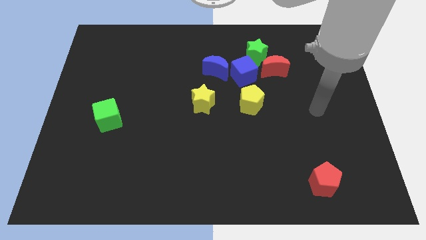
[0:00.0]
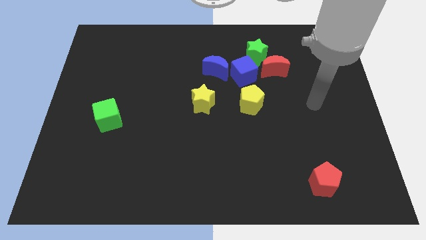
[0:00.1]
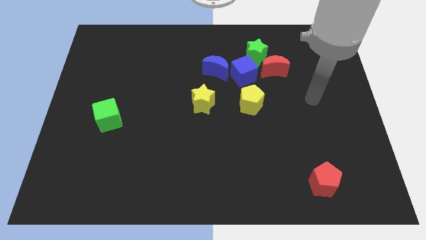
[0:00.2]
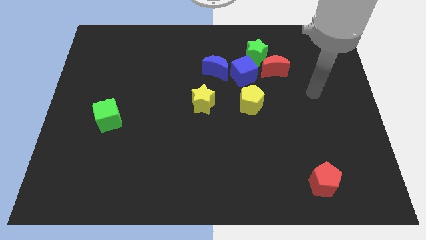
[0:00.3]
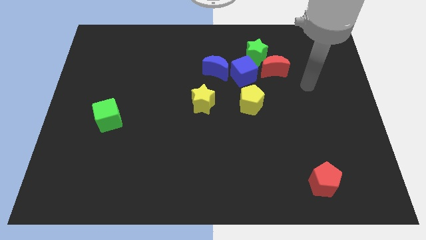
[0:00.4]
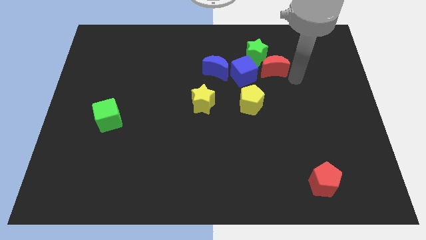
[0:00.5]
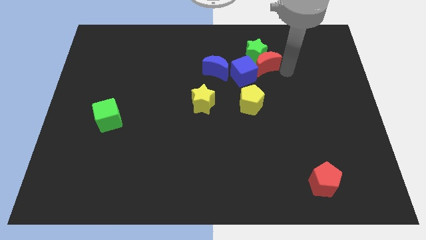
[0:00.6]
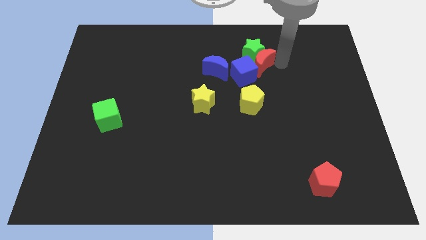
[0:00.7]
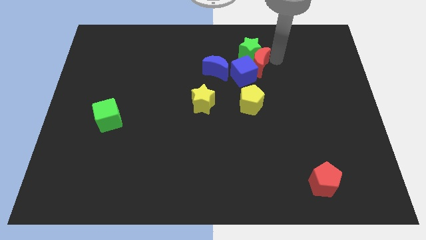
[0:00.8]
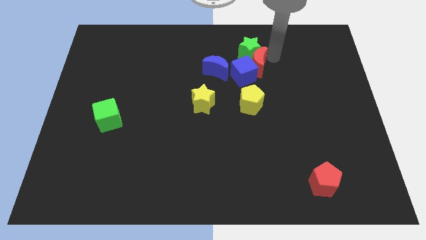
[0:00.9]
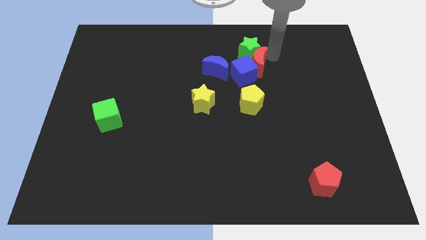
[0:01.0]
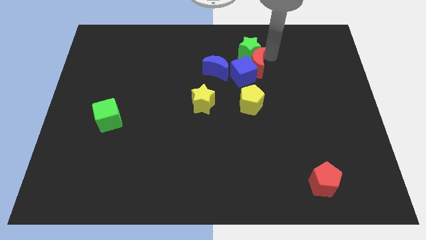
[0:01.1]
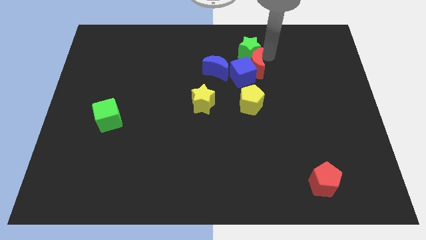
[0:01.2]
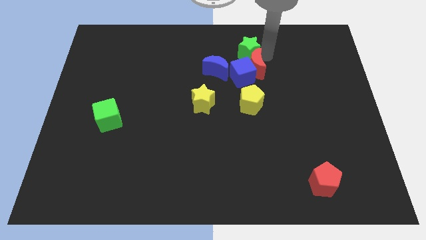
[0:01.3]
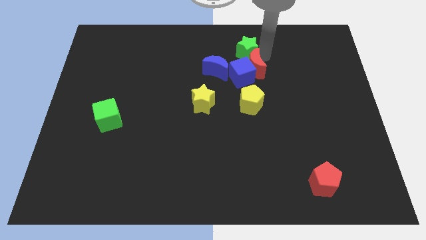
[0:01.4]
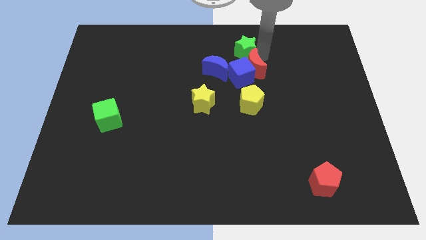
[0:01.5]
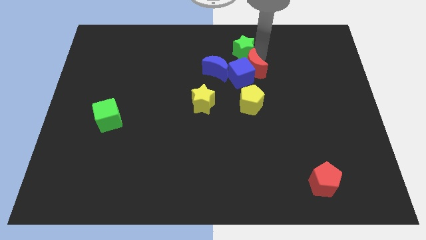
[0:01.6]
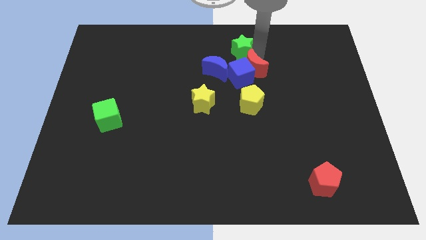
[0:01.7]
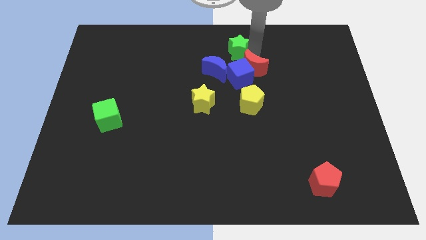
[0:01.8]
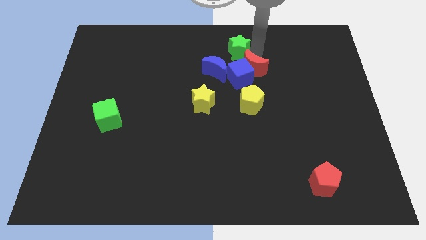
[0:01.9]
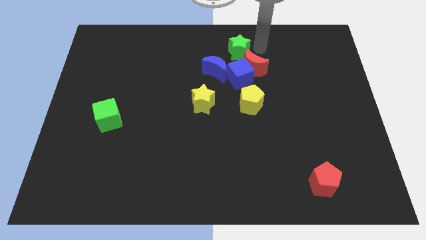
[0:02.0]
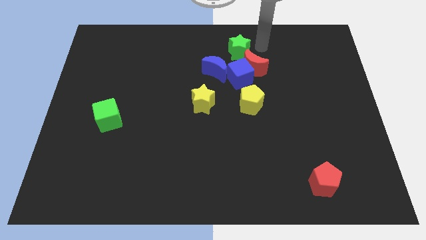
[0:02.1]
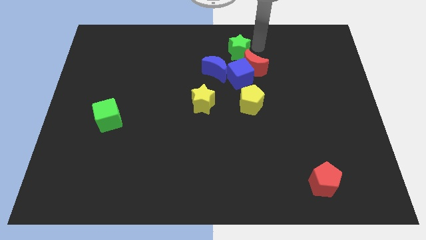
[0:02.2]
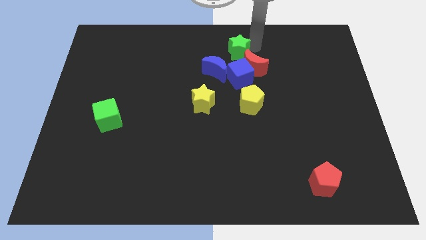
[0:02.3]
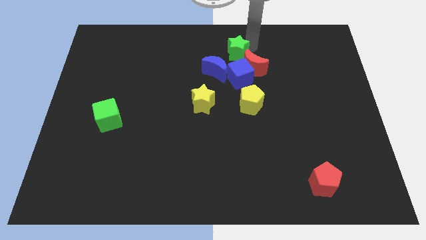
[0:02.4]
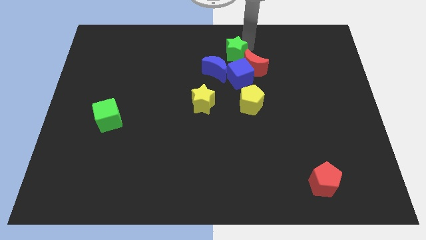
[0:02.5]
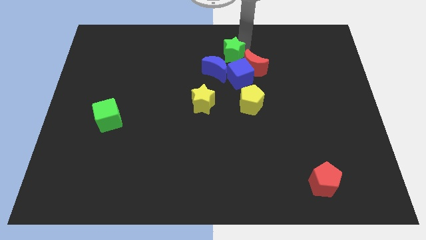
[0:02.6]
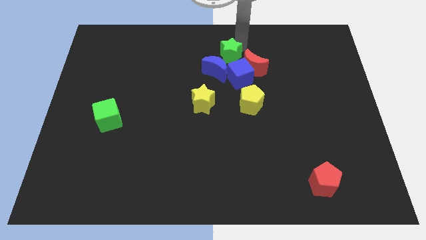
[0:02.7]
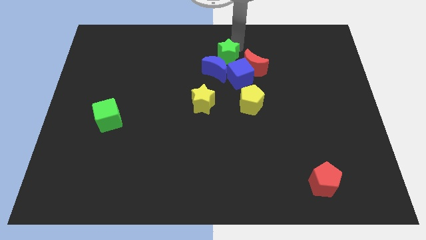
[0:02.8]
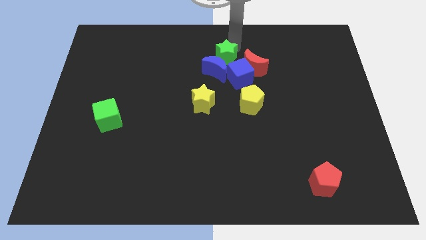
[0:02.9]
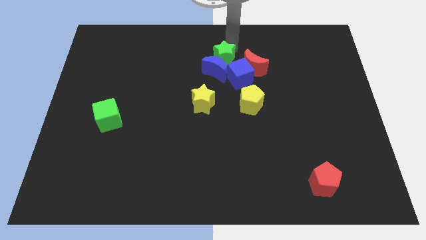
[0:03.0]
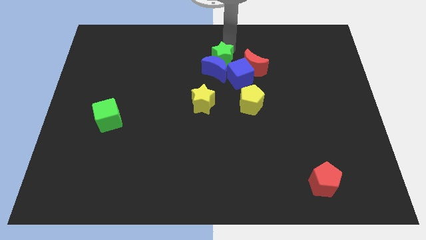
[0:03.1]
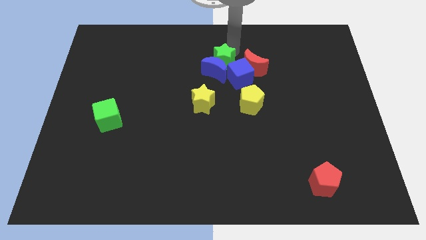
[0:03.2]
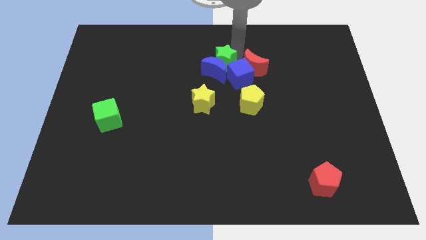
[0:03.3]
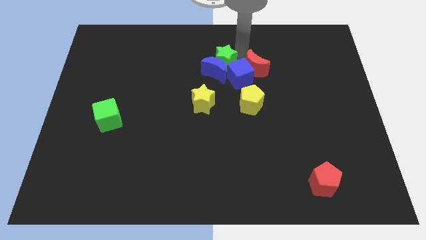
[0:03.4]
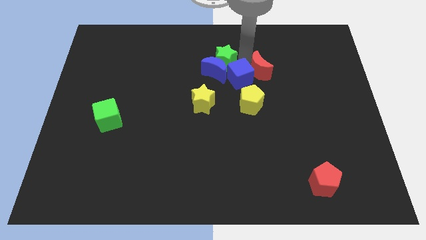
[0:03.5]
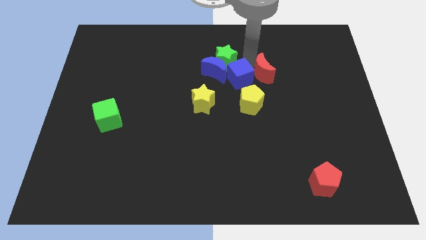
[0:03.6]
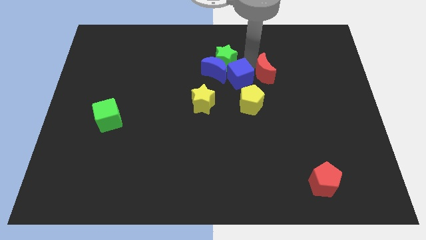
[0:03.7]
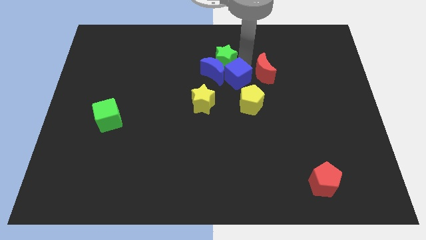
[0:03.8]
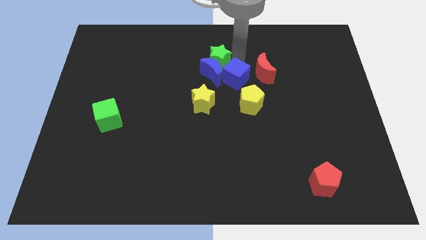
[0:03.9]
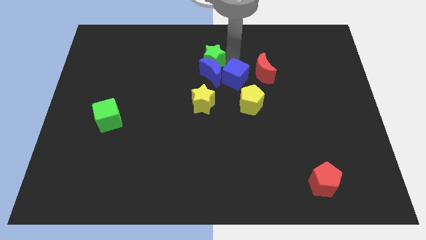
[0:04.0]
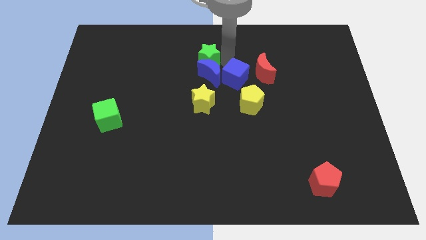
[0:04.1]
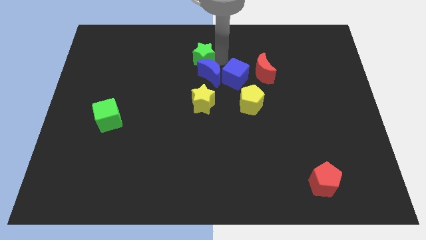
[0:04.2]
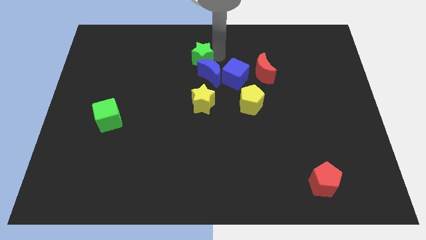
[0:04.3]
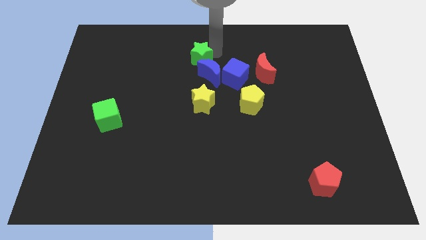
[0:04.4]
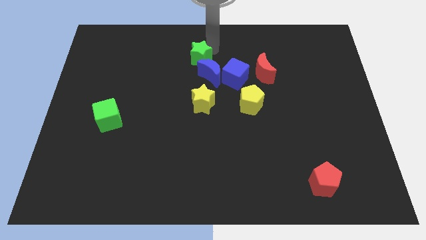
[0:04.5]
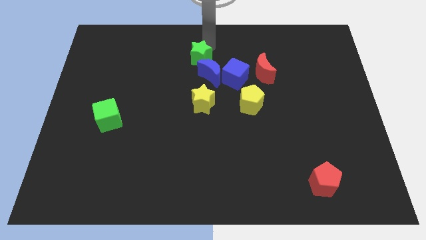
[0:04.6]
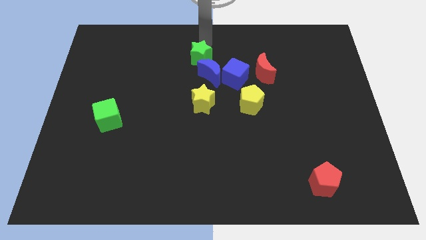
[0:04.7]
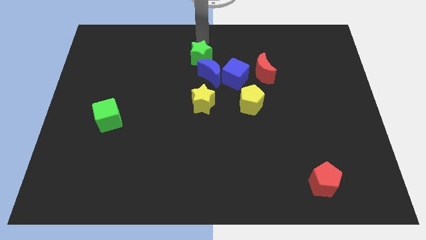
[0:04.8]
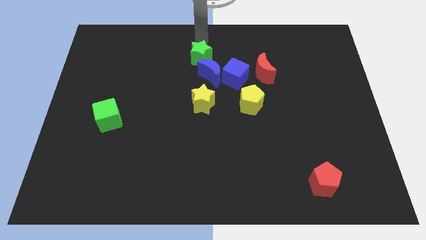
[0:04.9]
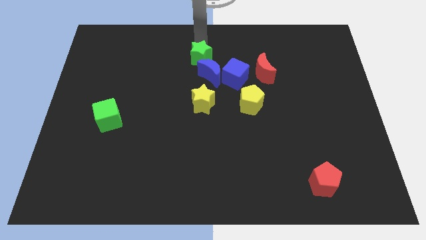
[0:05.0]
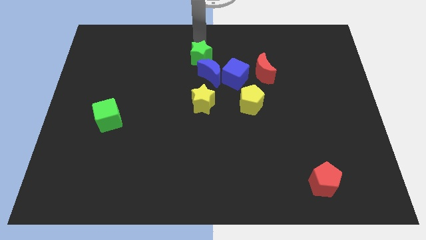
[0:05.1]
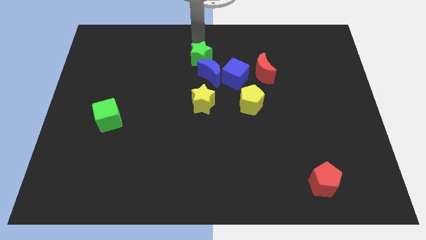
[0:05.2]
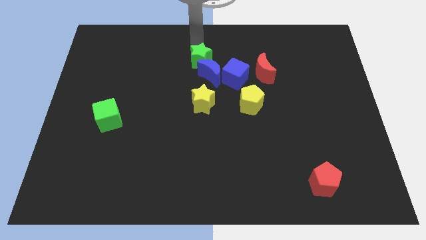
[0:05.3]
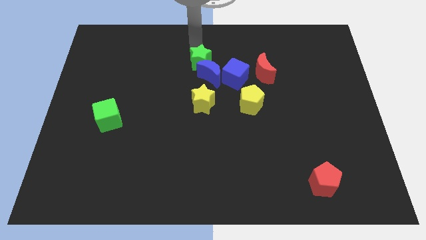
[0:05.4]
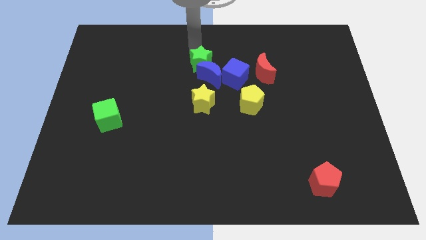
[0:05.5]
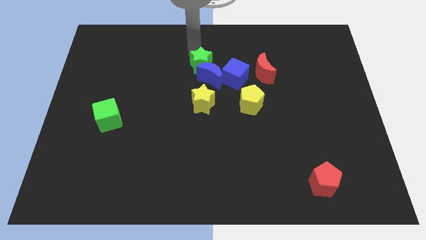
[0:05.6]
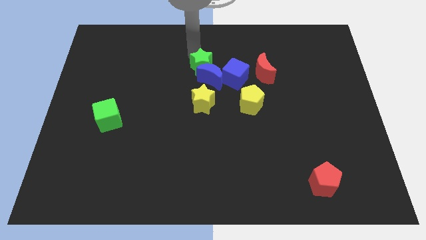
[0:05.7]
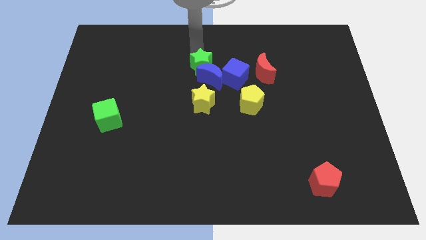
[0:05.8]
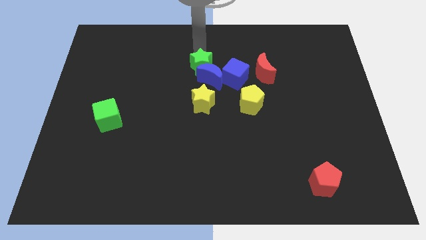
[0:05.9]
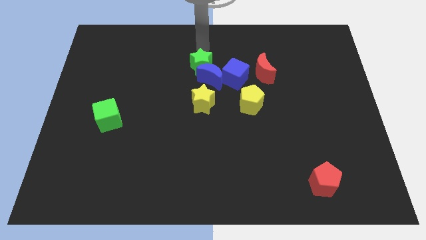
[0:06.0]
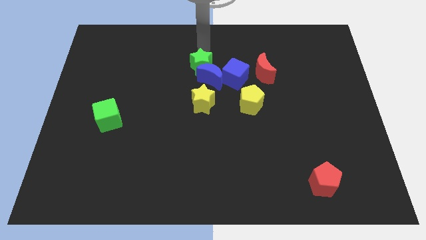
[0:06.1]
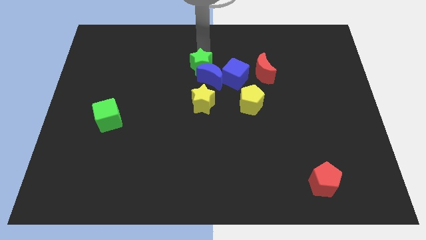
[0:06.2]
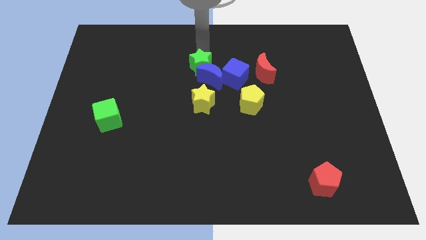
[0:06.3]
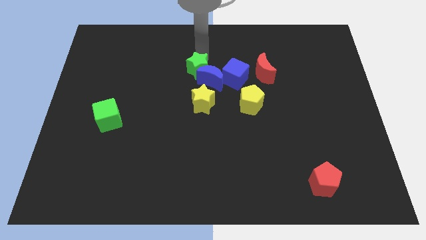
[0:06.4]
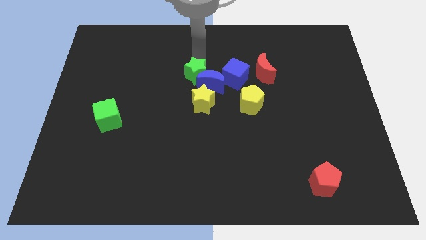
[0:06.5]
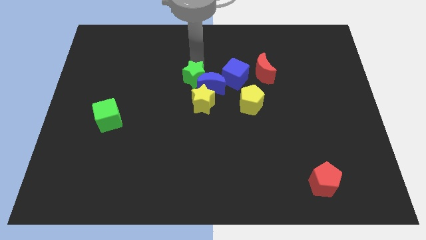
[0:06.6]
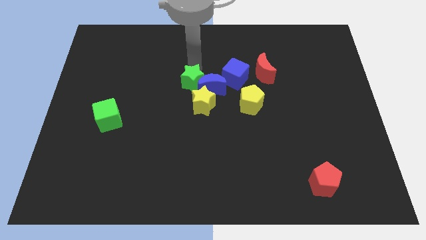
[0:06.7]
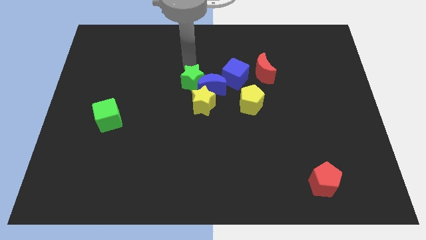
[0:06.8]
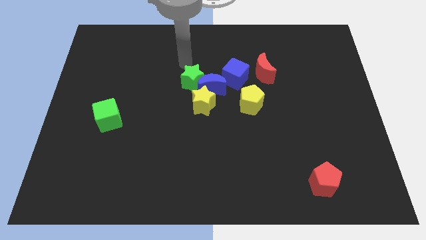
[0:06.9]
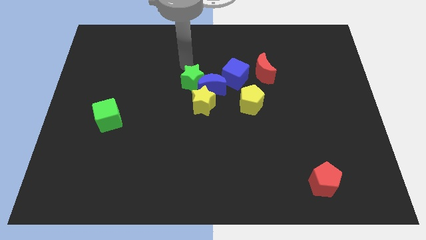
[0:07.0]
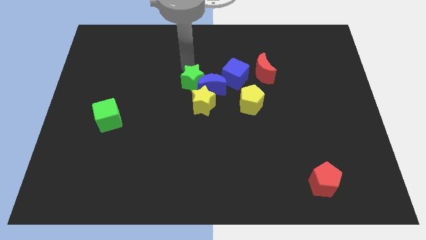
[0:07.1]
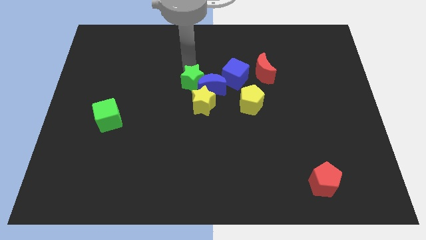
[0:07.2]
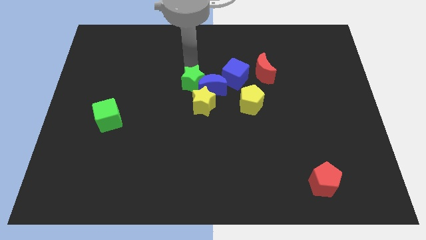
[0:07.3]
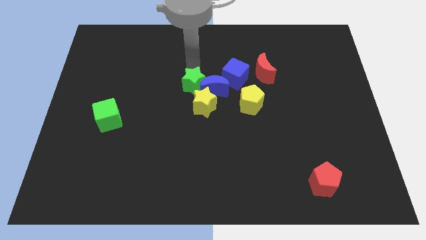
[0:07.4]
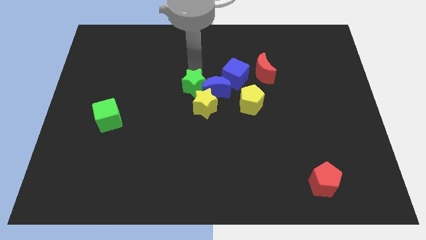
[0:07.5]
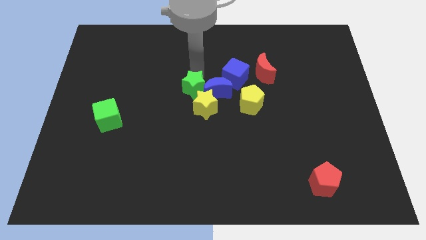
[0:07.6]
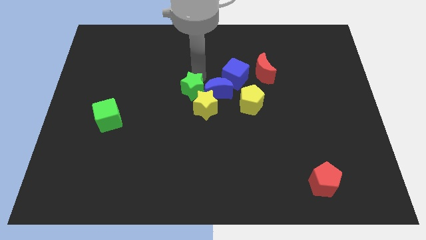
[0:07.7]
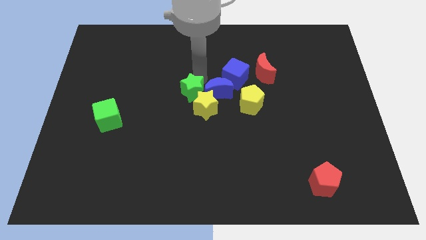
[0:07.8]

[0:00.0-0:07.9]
slide the green star to the yellow star
